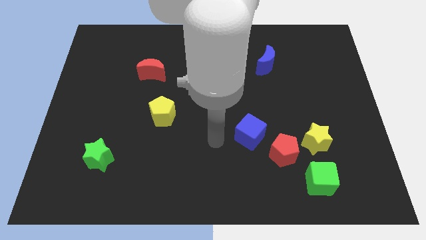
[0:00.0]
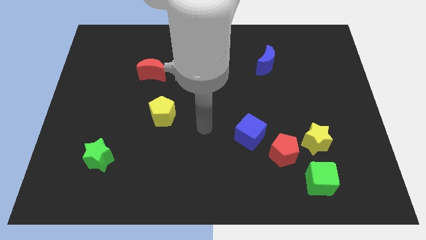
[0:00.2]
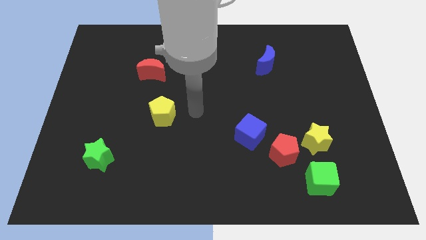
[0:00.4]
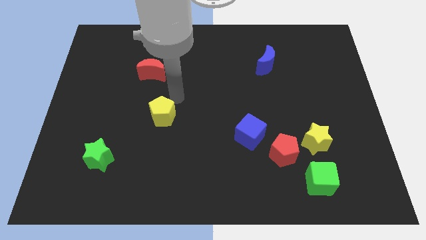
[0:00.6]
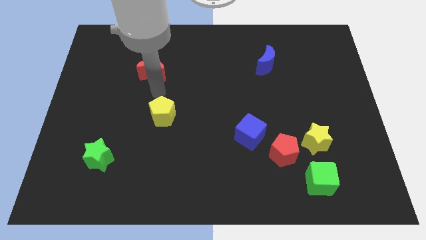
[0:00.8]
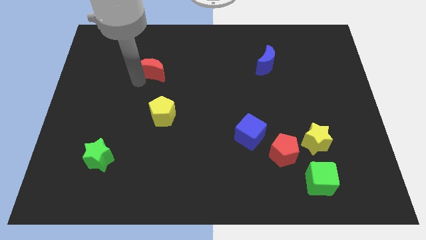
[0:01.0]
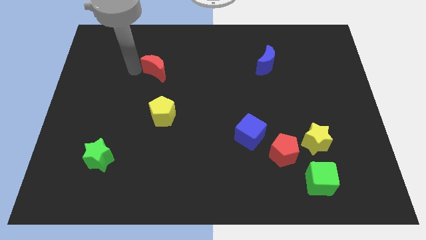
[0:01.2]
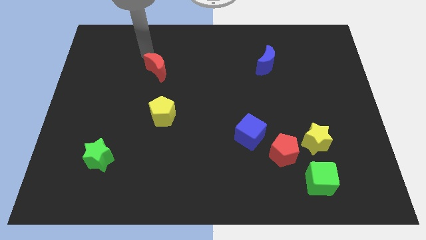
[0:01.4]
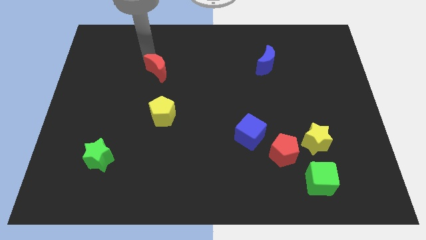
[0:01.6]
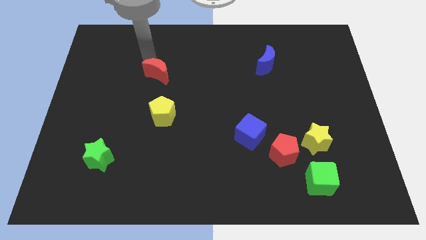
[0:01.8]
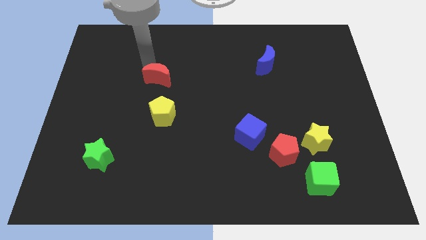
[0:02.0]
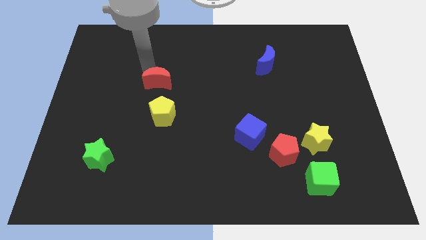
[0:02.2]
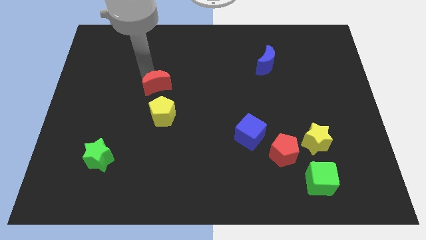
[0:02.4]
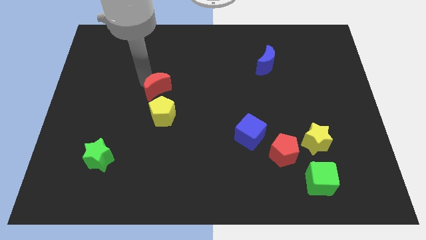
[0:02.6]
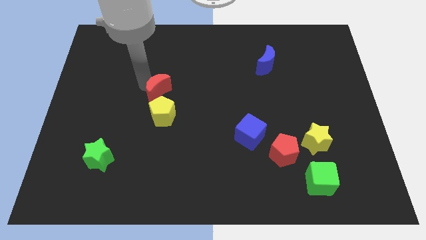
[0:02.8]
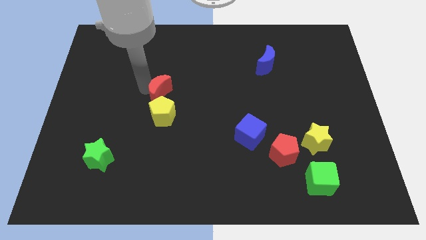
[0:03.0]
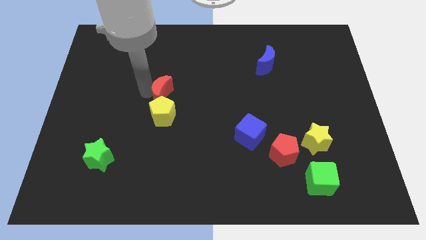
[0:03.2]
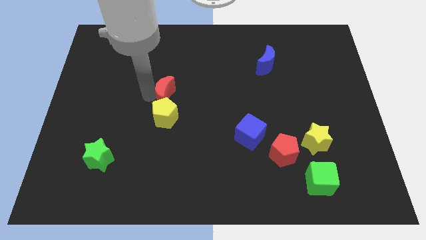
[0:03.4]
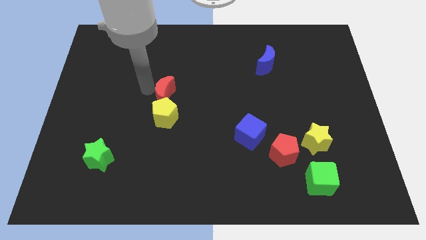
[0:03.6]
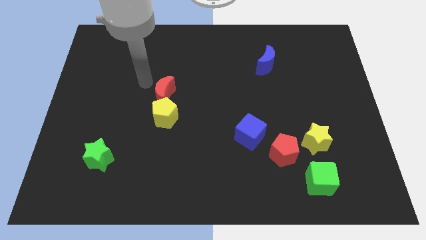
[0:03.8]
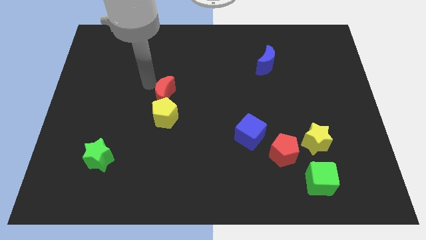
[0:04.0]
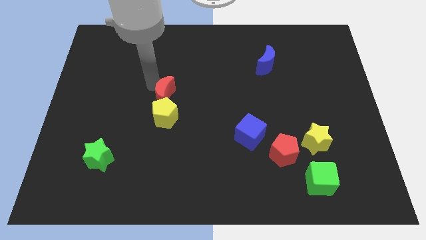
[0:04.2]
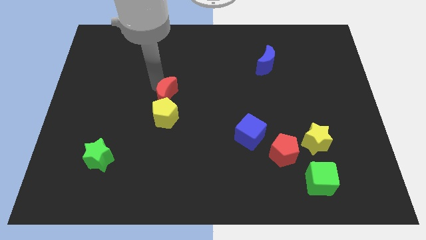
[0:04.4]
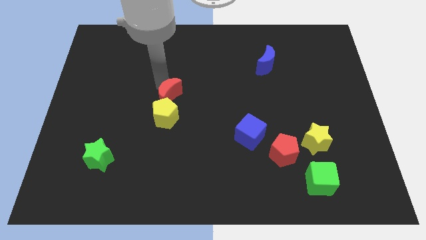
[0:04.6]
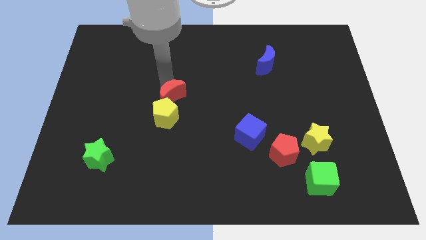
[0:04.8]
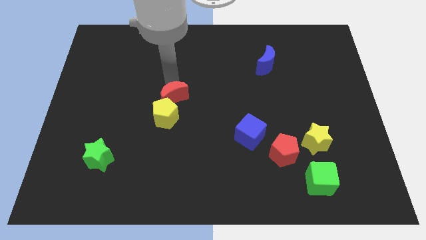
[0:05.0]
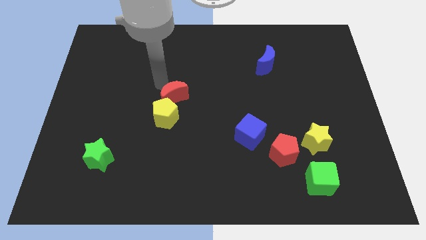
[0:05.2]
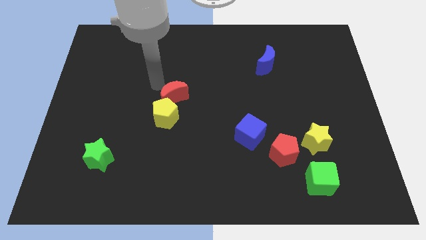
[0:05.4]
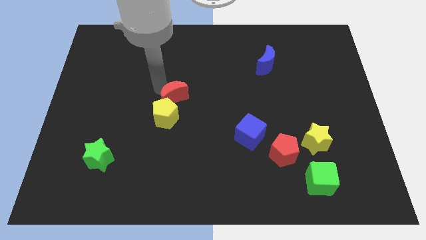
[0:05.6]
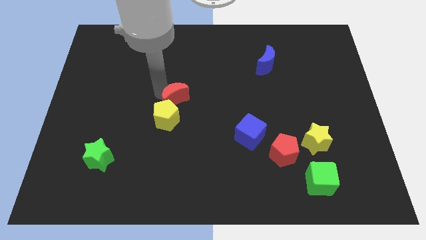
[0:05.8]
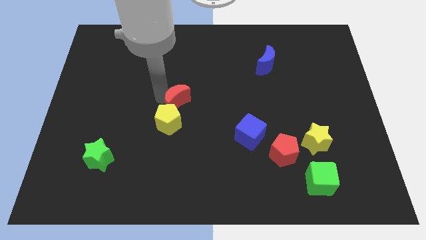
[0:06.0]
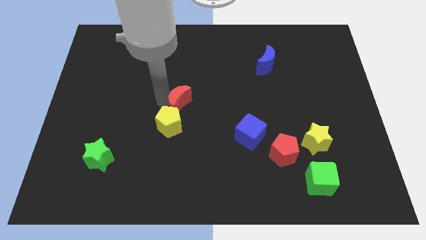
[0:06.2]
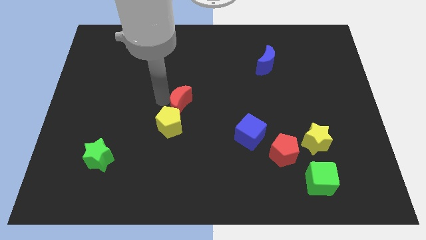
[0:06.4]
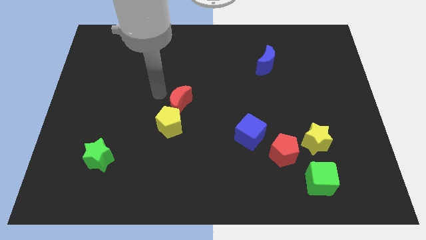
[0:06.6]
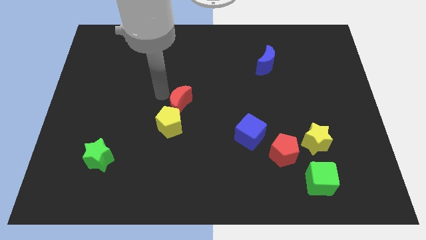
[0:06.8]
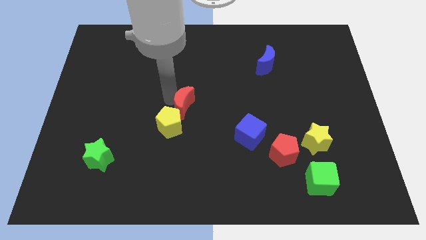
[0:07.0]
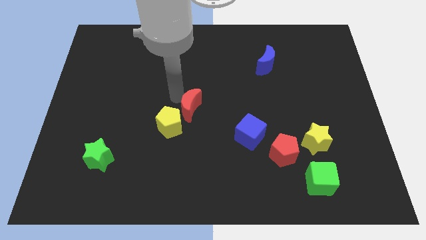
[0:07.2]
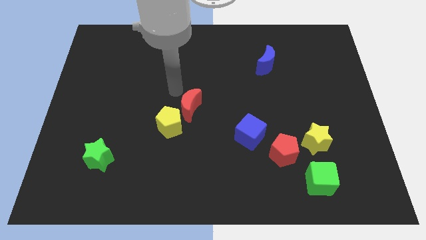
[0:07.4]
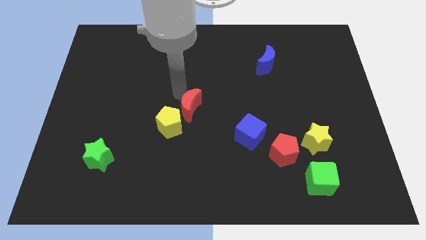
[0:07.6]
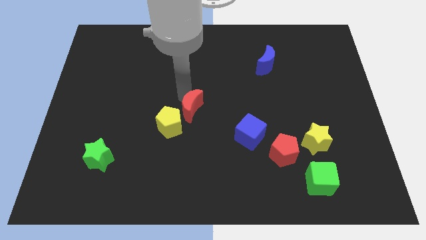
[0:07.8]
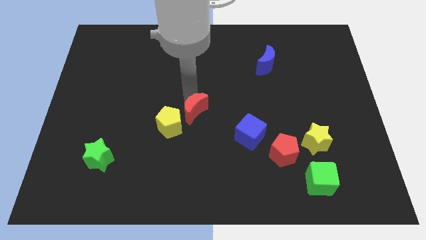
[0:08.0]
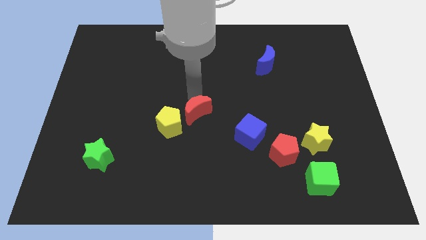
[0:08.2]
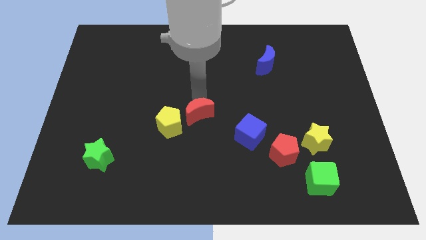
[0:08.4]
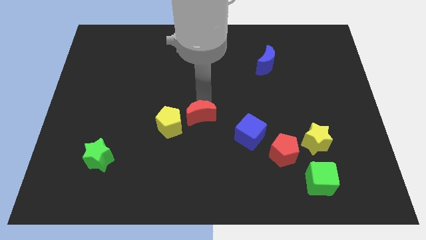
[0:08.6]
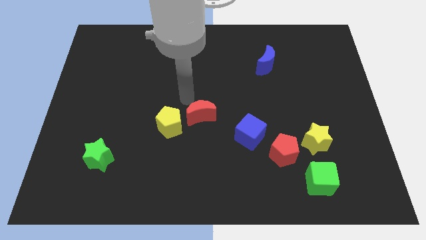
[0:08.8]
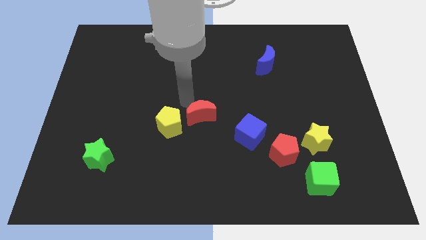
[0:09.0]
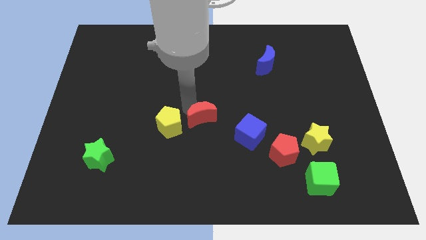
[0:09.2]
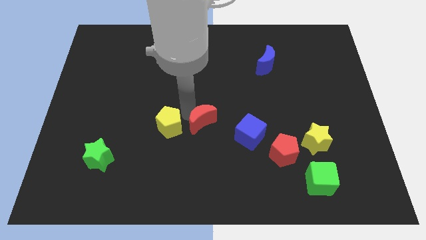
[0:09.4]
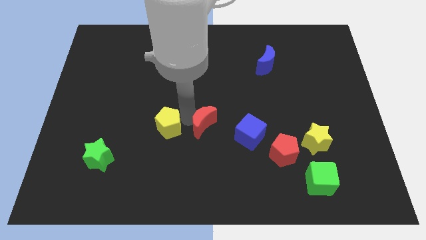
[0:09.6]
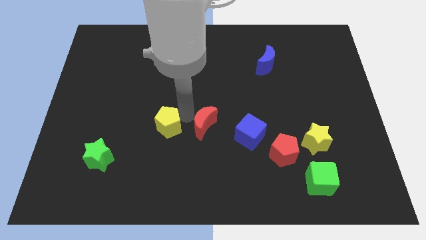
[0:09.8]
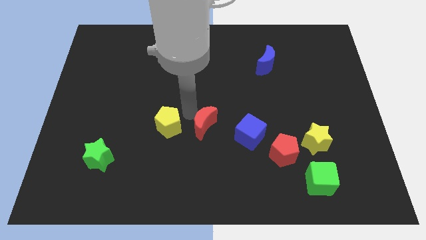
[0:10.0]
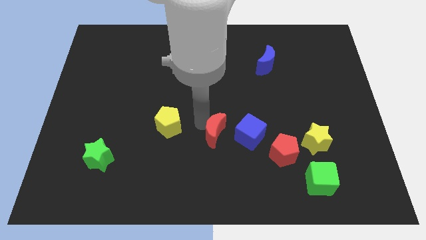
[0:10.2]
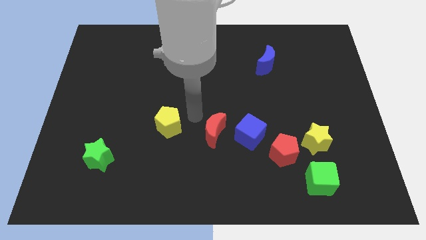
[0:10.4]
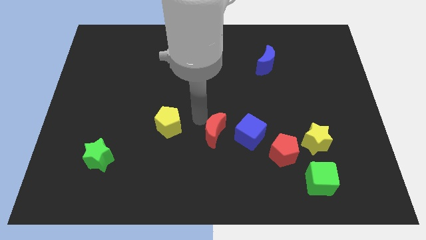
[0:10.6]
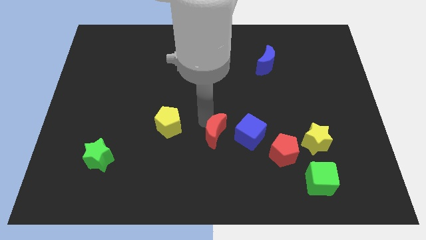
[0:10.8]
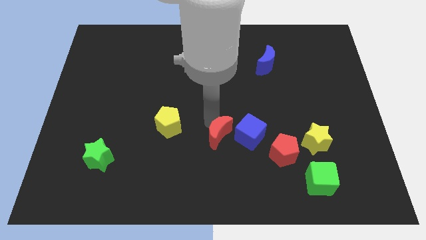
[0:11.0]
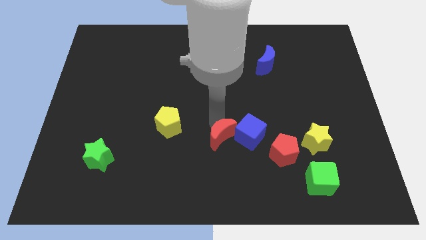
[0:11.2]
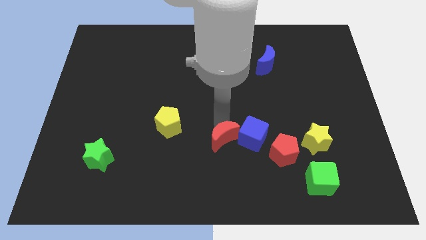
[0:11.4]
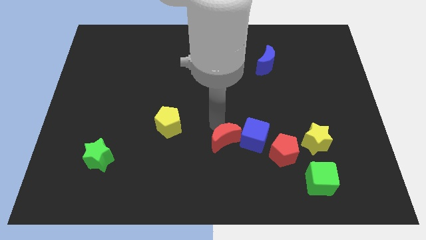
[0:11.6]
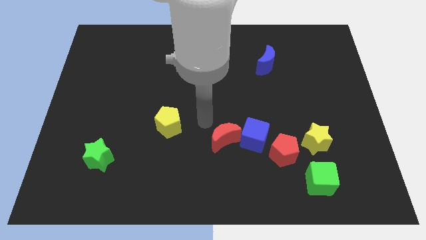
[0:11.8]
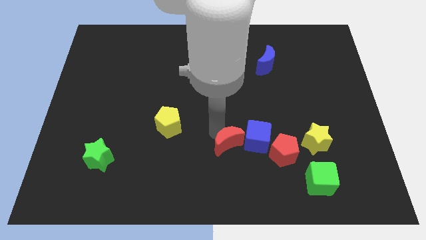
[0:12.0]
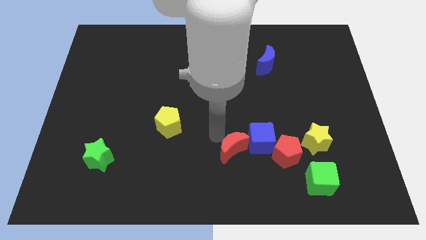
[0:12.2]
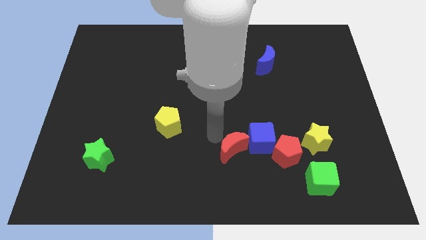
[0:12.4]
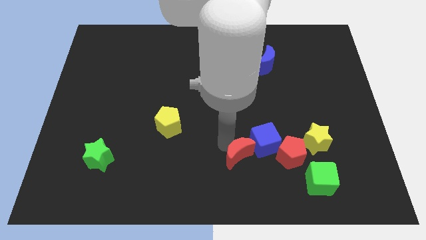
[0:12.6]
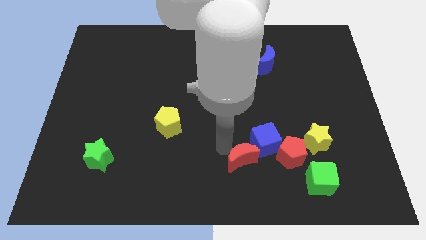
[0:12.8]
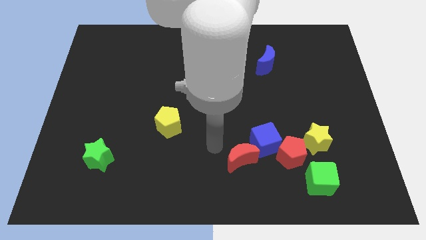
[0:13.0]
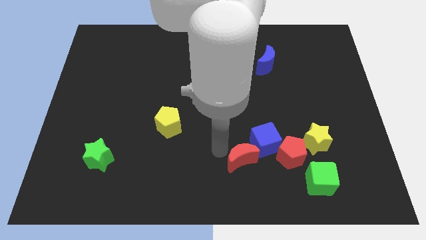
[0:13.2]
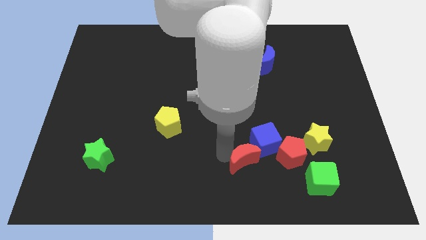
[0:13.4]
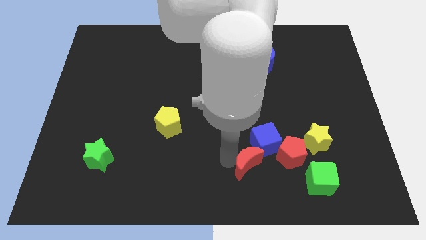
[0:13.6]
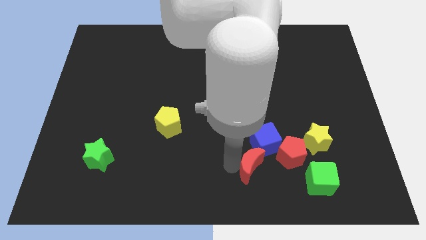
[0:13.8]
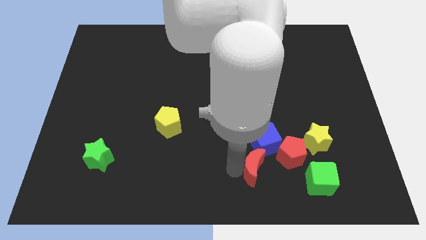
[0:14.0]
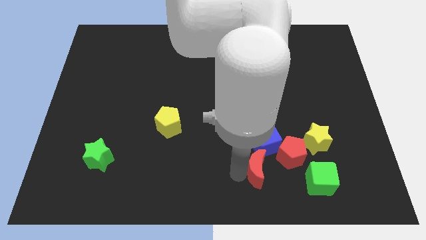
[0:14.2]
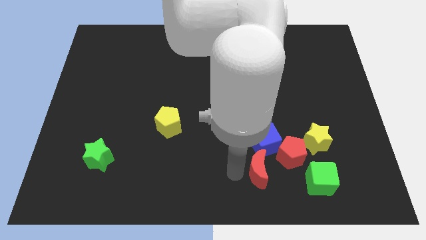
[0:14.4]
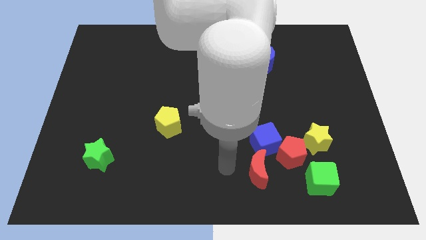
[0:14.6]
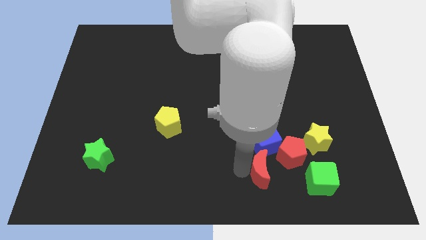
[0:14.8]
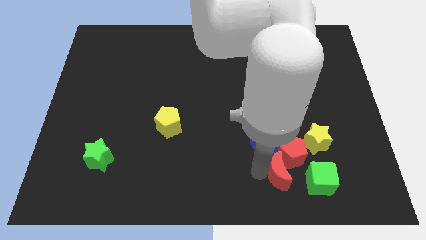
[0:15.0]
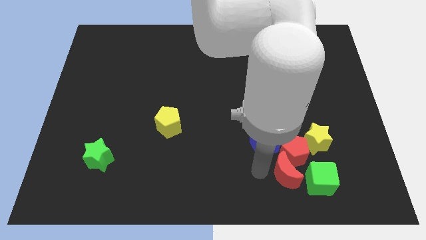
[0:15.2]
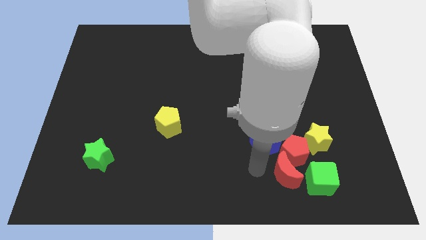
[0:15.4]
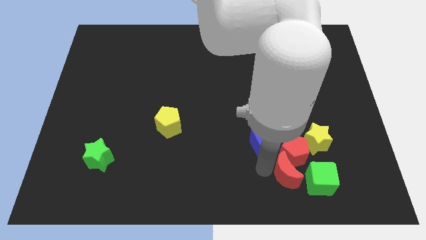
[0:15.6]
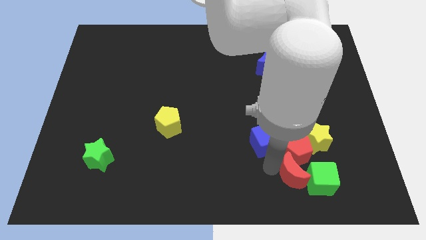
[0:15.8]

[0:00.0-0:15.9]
push the red moon close to the green cube
